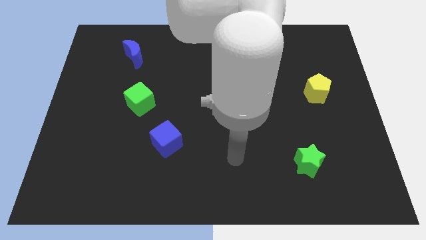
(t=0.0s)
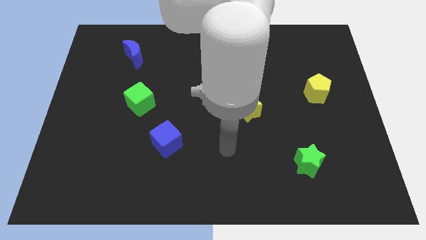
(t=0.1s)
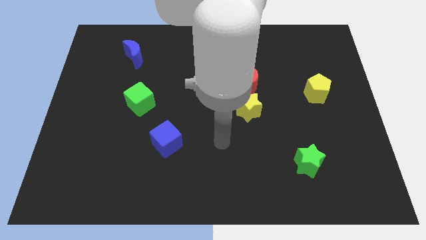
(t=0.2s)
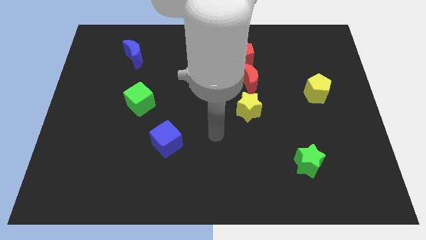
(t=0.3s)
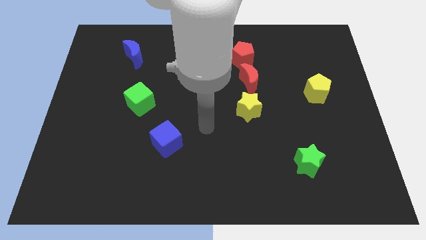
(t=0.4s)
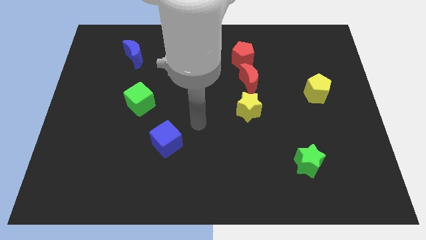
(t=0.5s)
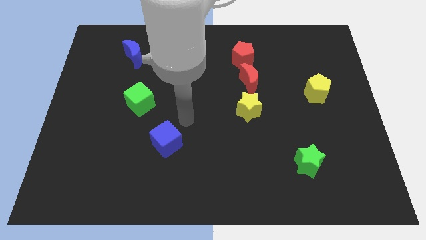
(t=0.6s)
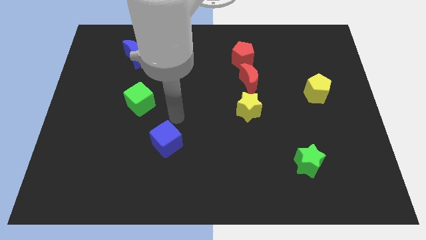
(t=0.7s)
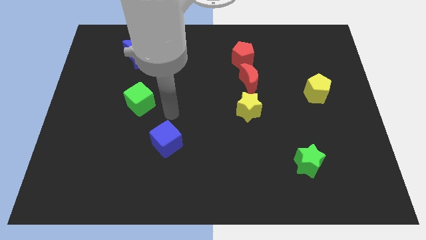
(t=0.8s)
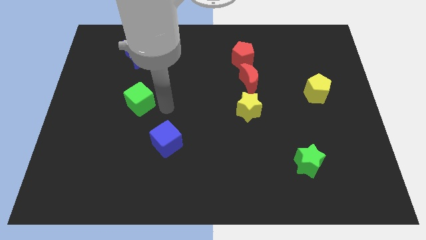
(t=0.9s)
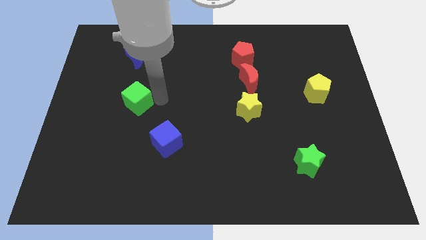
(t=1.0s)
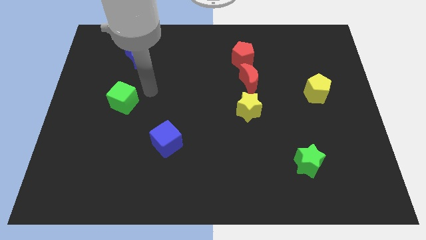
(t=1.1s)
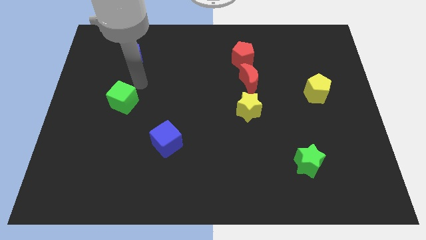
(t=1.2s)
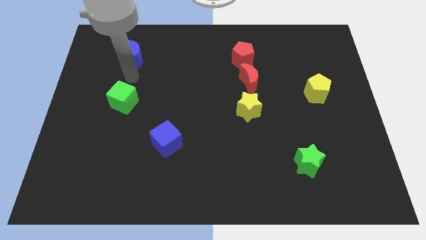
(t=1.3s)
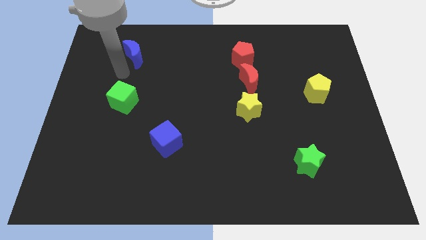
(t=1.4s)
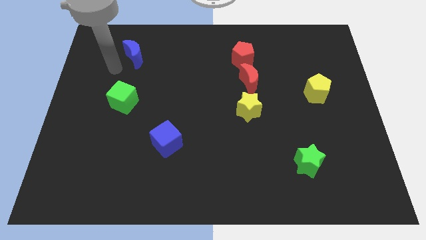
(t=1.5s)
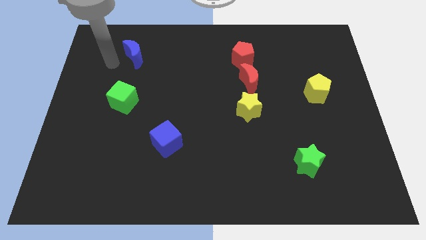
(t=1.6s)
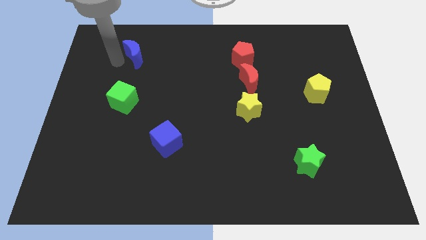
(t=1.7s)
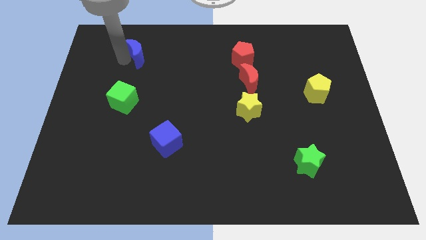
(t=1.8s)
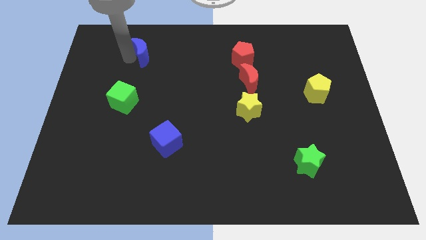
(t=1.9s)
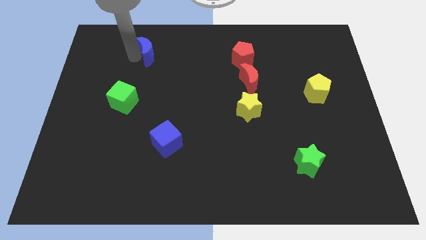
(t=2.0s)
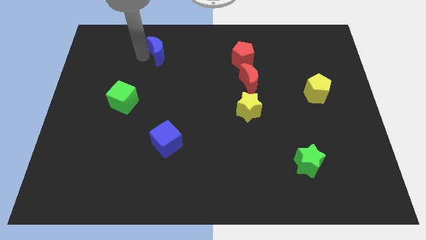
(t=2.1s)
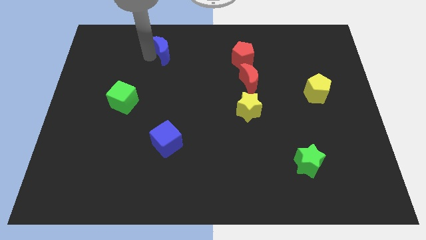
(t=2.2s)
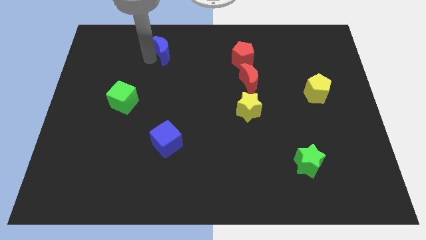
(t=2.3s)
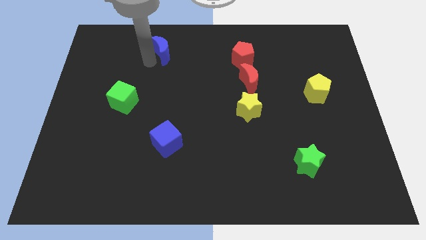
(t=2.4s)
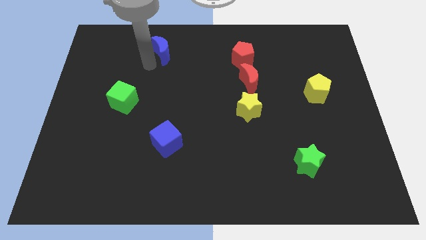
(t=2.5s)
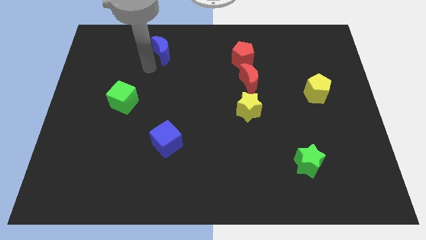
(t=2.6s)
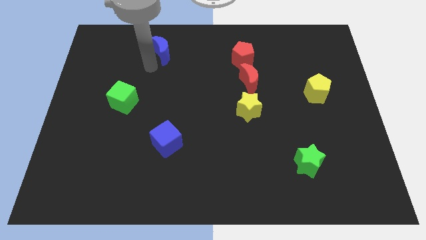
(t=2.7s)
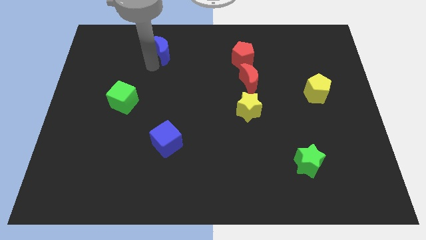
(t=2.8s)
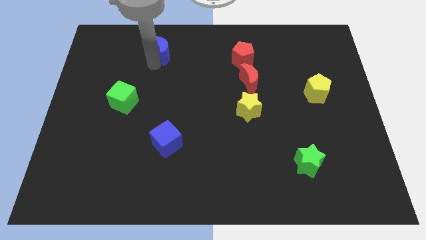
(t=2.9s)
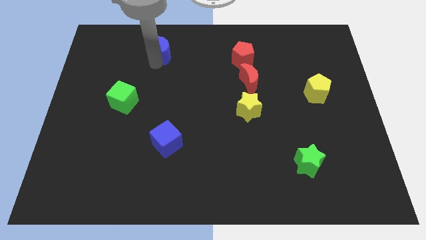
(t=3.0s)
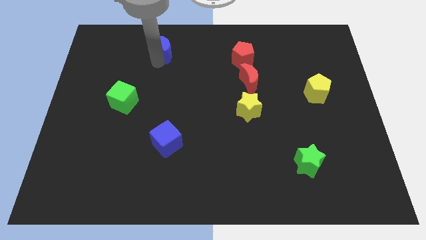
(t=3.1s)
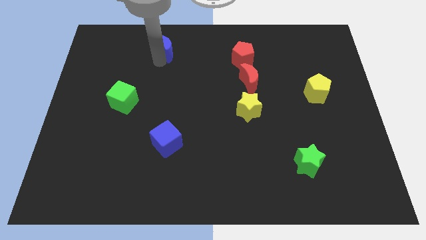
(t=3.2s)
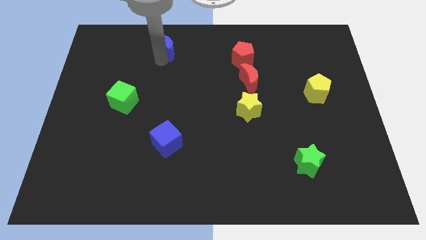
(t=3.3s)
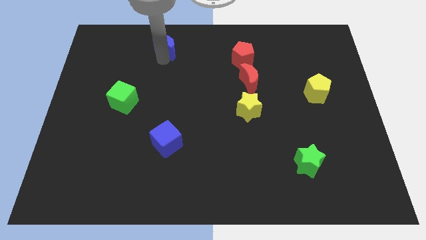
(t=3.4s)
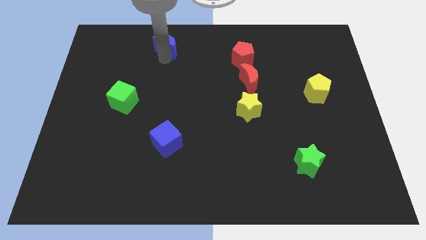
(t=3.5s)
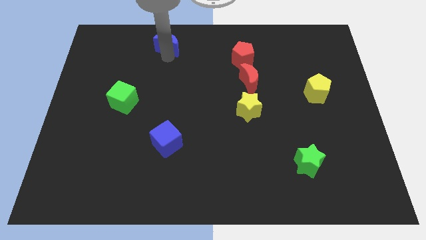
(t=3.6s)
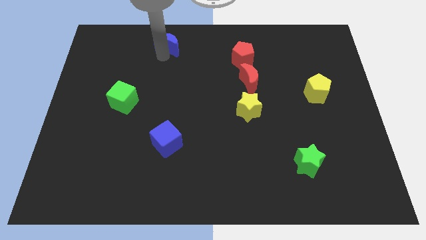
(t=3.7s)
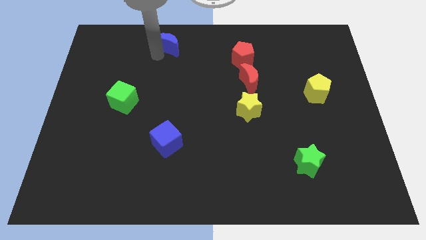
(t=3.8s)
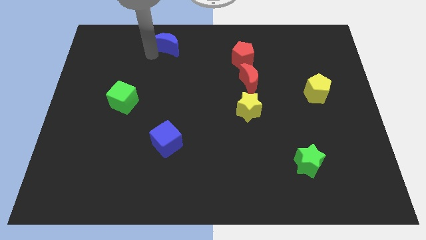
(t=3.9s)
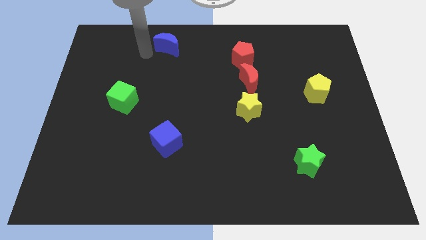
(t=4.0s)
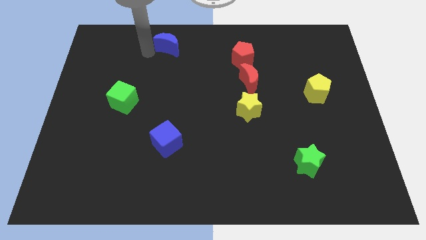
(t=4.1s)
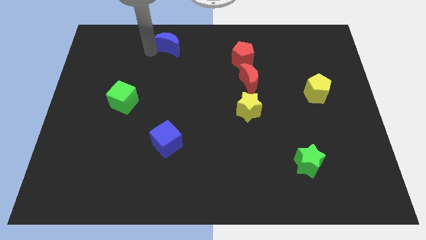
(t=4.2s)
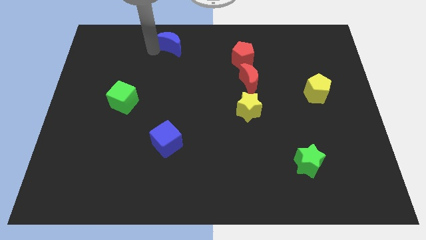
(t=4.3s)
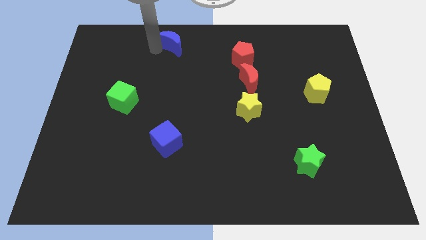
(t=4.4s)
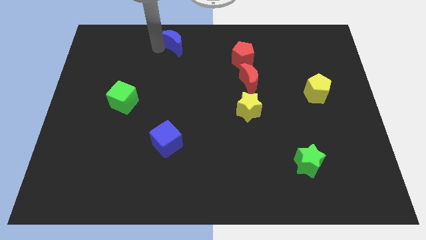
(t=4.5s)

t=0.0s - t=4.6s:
push the blue moon to the top side

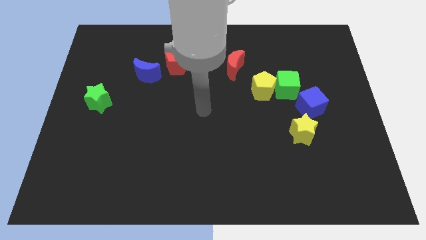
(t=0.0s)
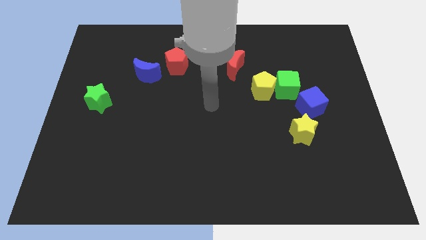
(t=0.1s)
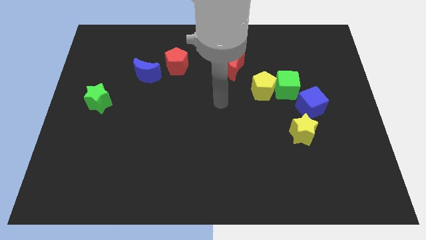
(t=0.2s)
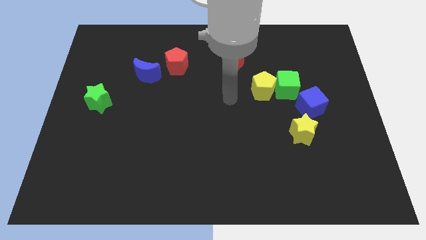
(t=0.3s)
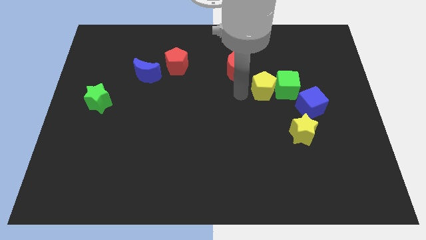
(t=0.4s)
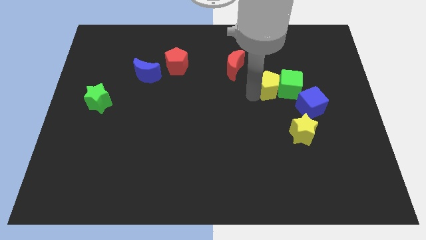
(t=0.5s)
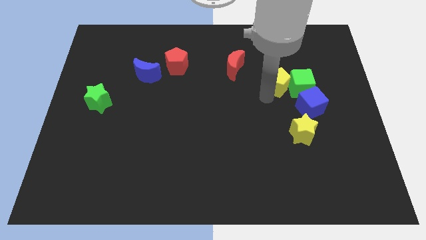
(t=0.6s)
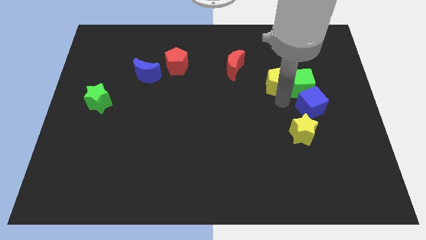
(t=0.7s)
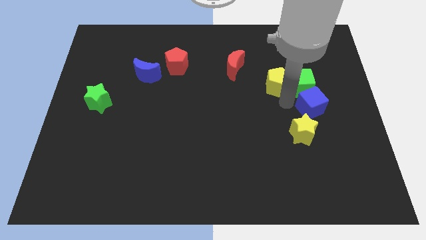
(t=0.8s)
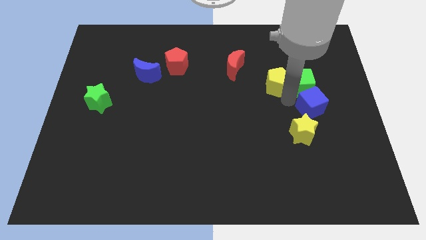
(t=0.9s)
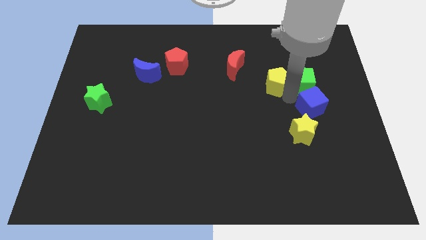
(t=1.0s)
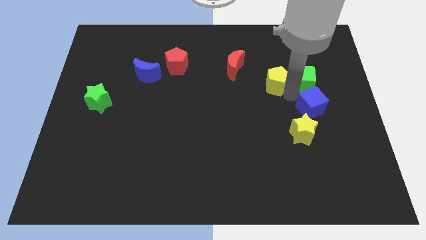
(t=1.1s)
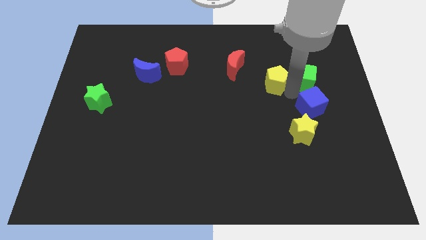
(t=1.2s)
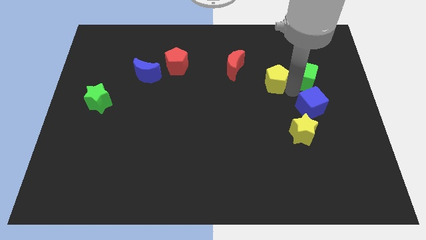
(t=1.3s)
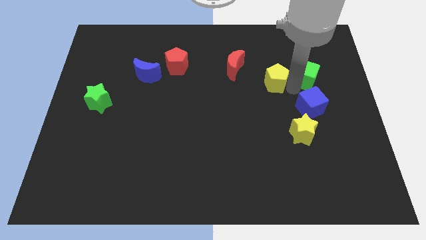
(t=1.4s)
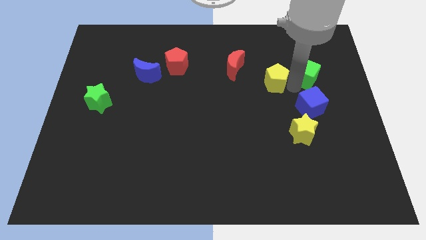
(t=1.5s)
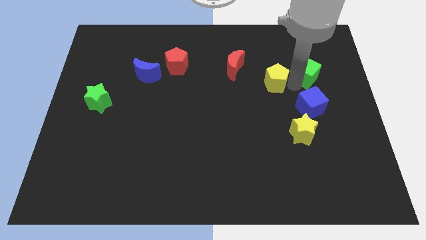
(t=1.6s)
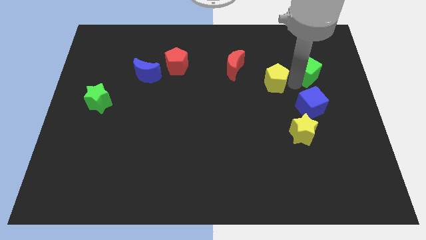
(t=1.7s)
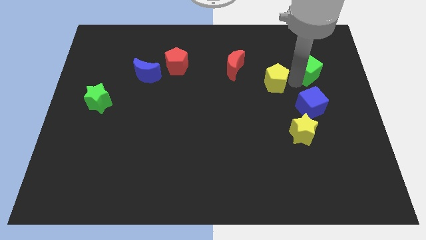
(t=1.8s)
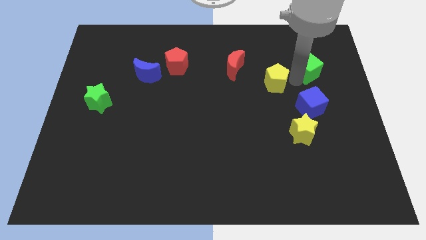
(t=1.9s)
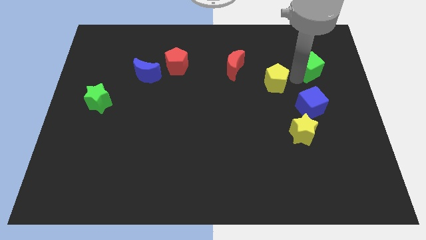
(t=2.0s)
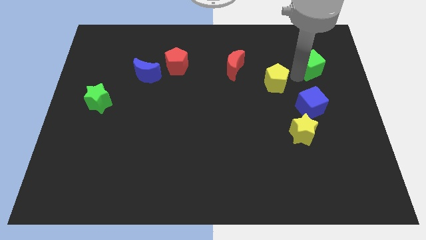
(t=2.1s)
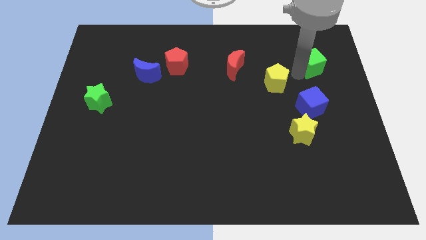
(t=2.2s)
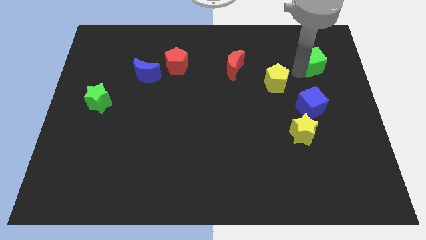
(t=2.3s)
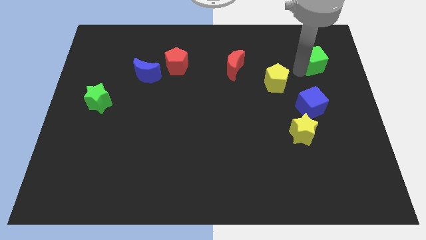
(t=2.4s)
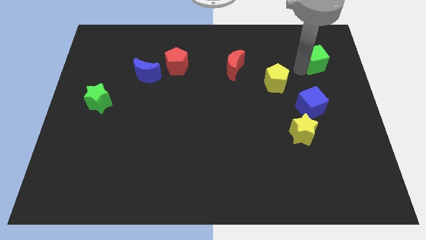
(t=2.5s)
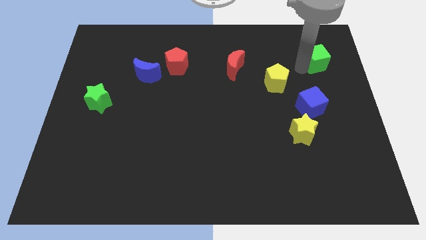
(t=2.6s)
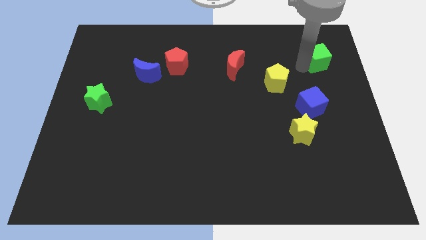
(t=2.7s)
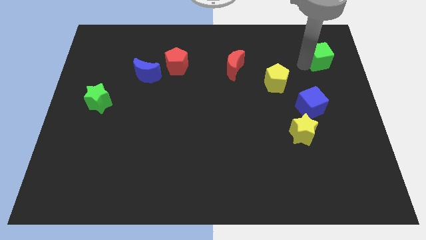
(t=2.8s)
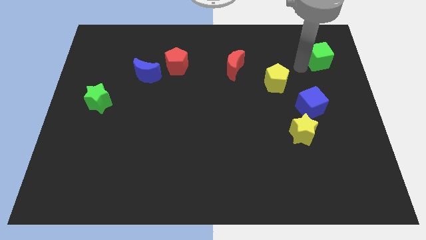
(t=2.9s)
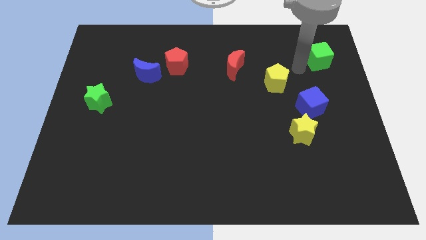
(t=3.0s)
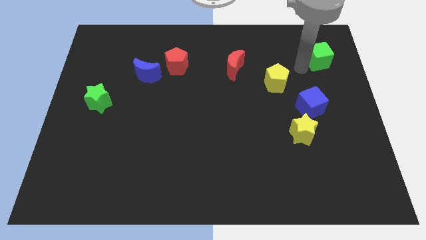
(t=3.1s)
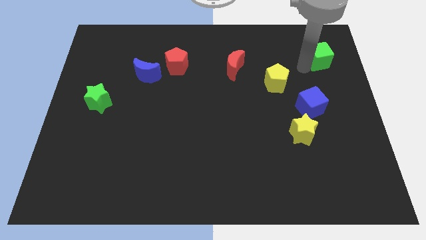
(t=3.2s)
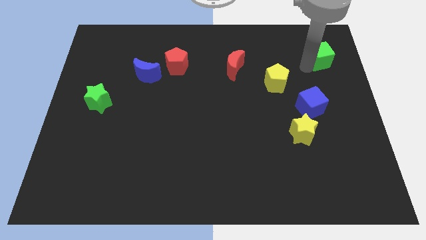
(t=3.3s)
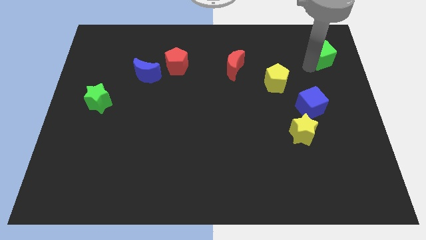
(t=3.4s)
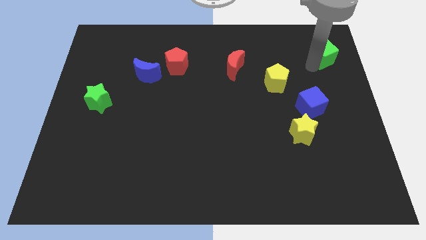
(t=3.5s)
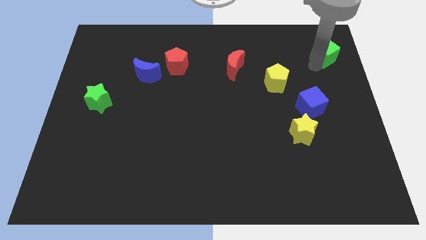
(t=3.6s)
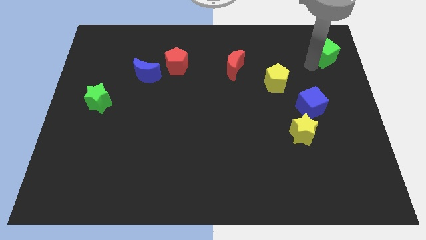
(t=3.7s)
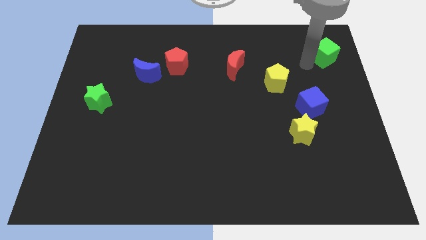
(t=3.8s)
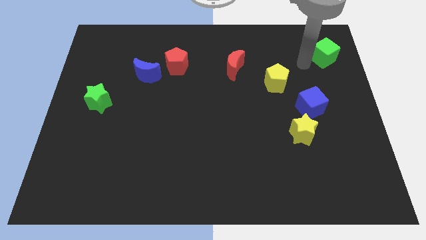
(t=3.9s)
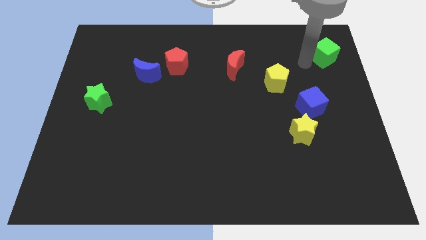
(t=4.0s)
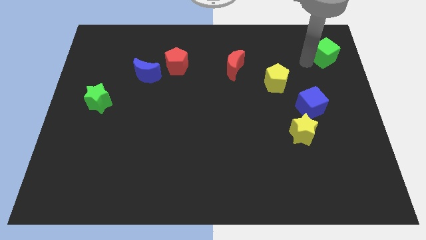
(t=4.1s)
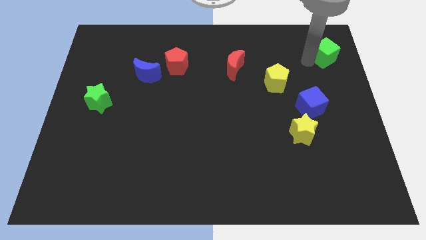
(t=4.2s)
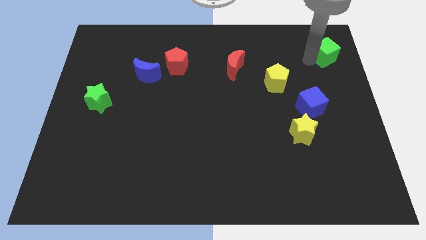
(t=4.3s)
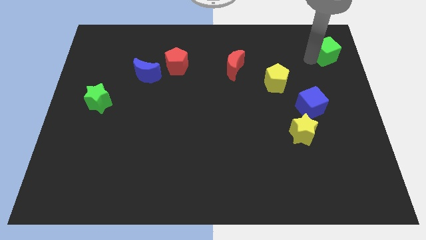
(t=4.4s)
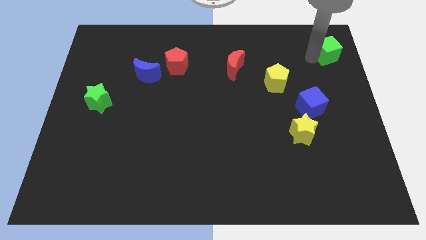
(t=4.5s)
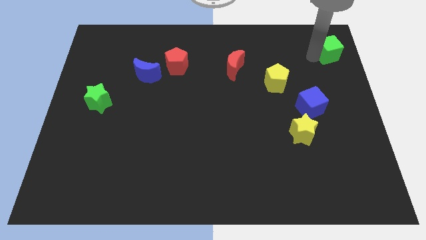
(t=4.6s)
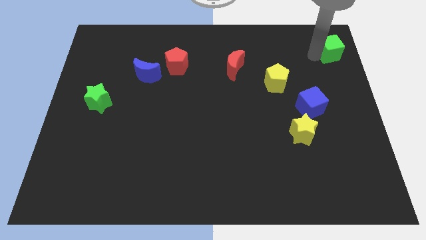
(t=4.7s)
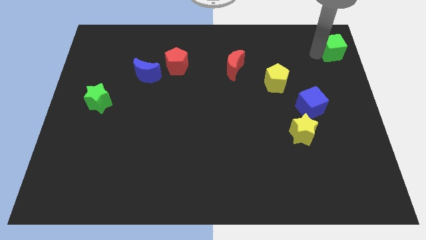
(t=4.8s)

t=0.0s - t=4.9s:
put the green cube to the top right
